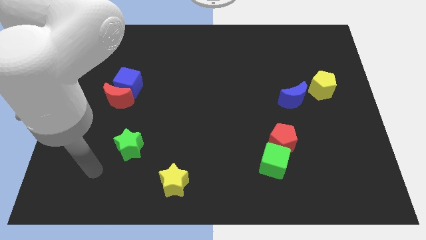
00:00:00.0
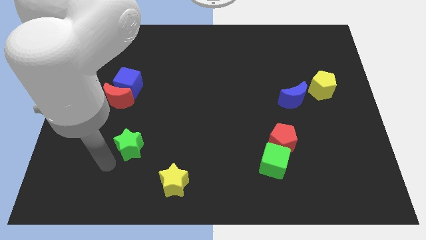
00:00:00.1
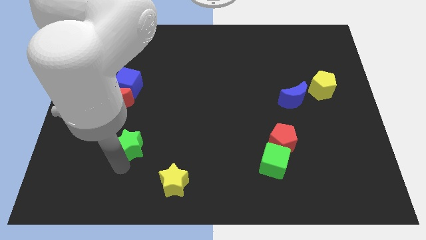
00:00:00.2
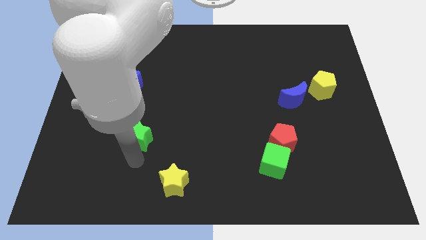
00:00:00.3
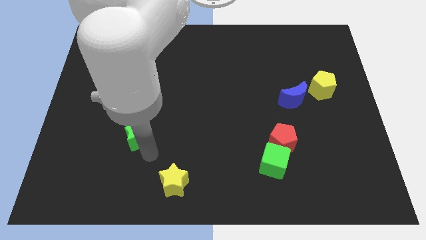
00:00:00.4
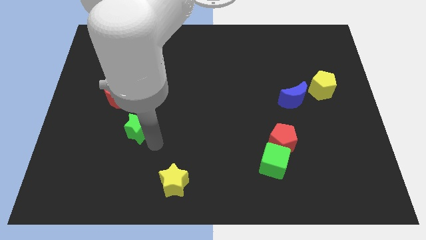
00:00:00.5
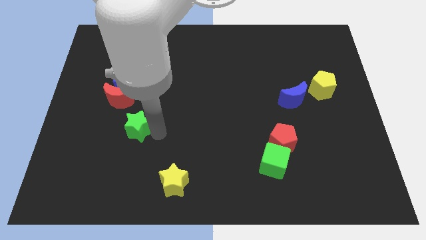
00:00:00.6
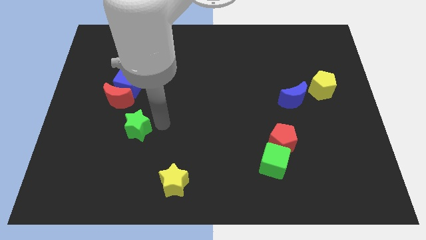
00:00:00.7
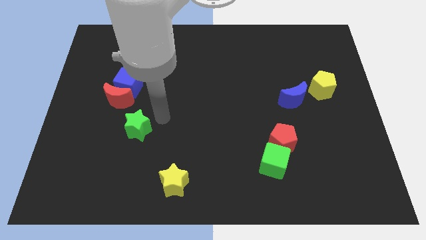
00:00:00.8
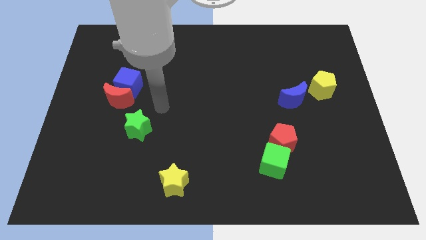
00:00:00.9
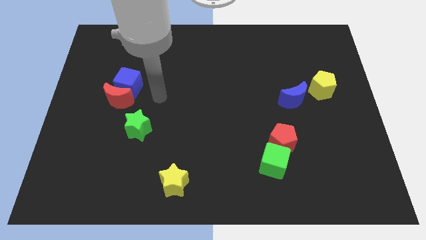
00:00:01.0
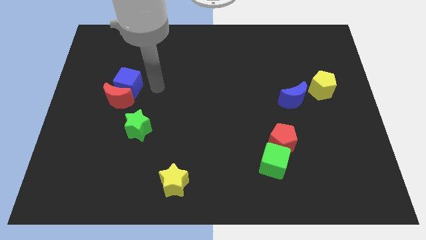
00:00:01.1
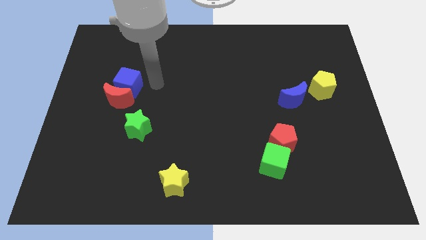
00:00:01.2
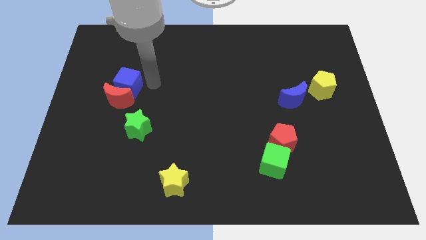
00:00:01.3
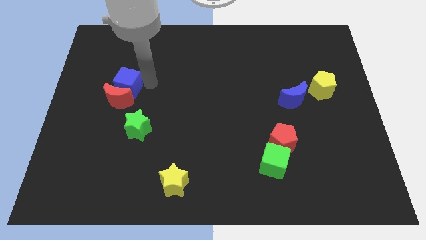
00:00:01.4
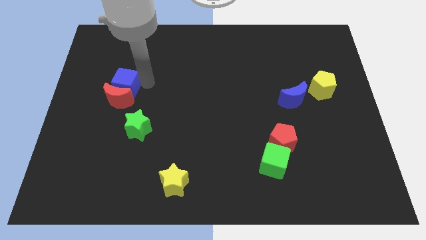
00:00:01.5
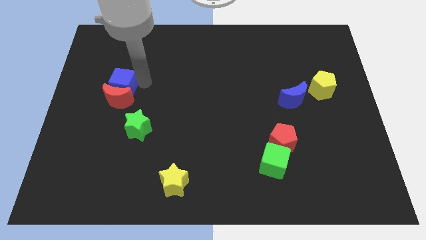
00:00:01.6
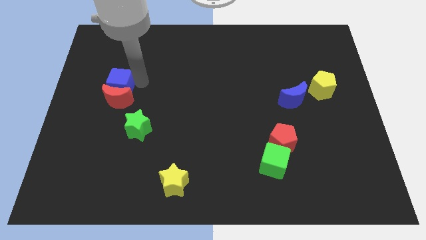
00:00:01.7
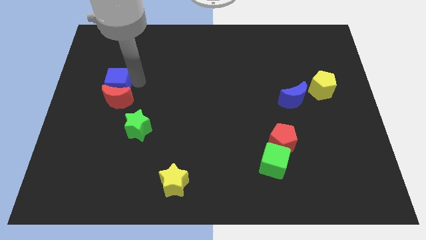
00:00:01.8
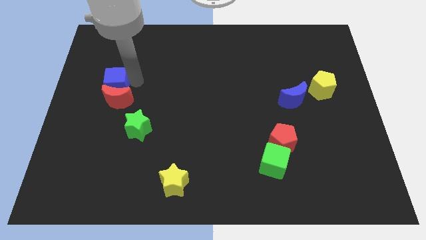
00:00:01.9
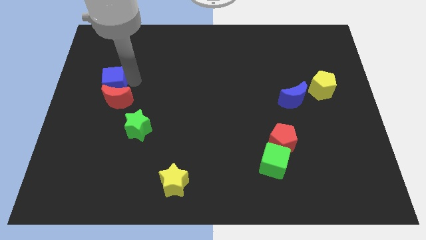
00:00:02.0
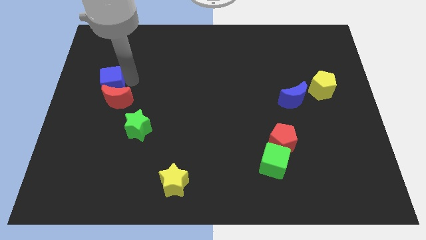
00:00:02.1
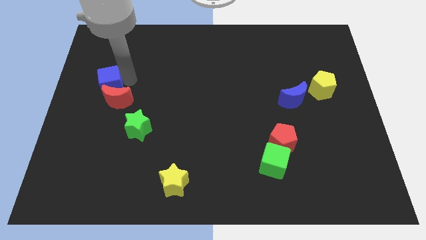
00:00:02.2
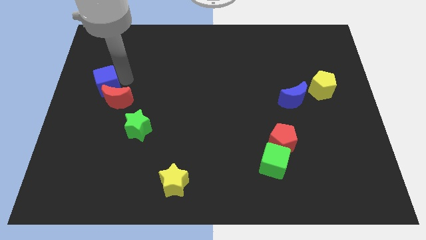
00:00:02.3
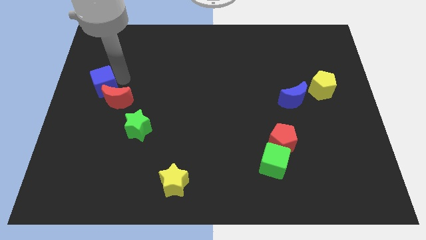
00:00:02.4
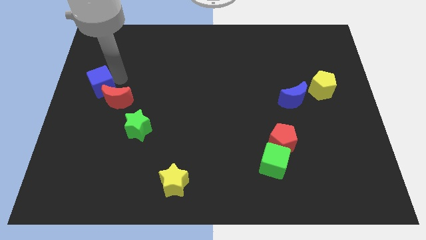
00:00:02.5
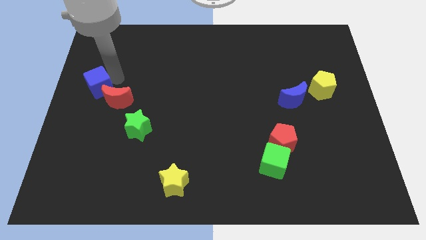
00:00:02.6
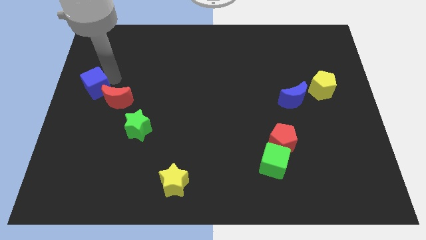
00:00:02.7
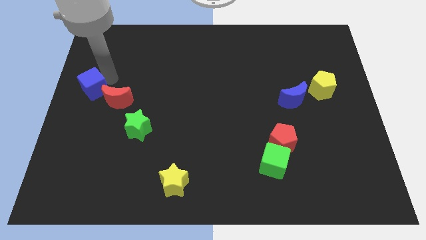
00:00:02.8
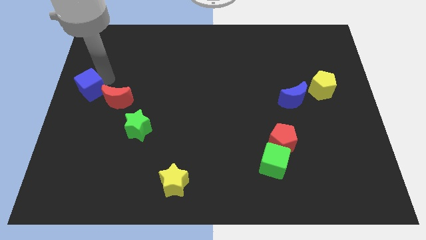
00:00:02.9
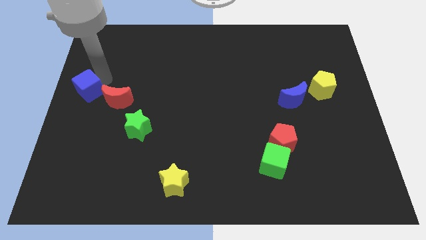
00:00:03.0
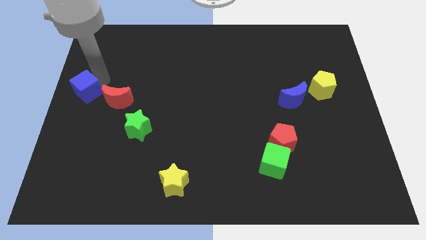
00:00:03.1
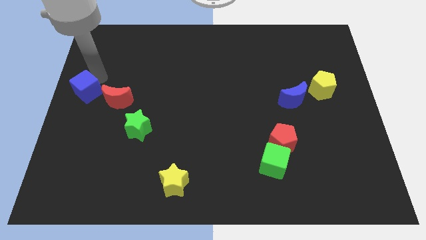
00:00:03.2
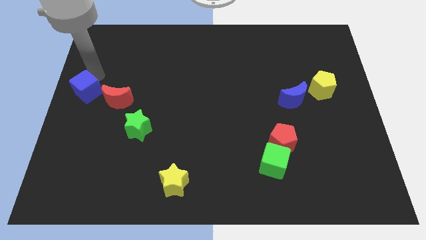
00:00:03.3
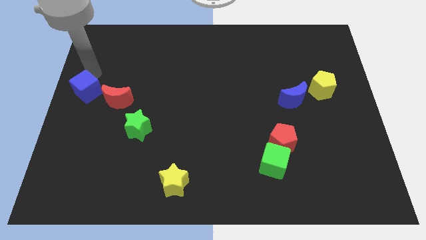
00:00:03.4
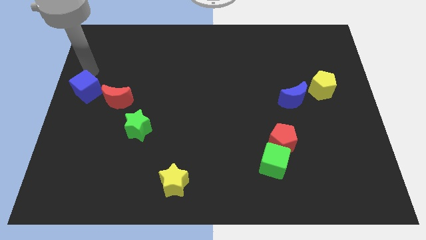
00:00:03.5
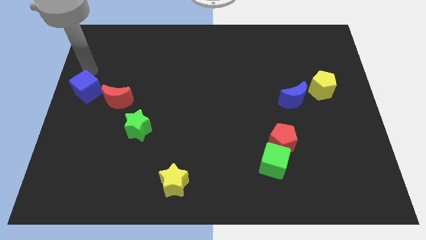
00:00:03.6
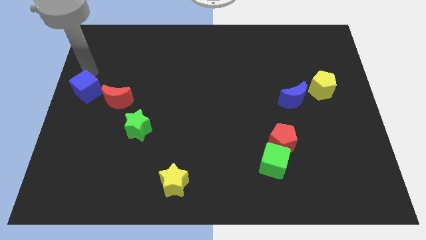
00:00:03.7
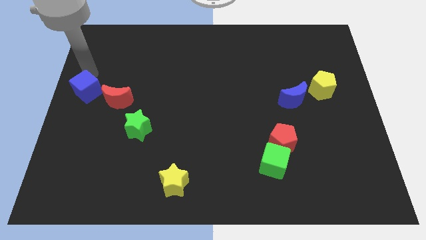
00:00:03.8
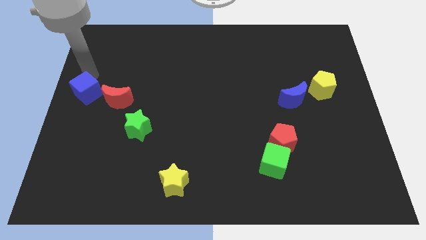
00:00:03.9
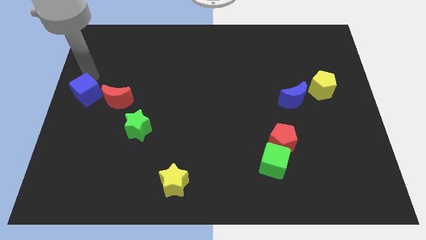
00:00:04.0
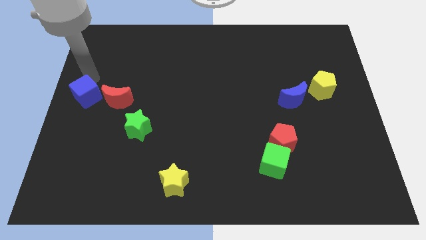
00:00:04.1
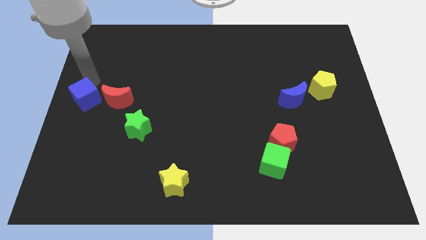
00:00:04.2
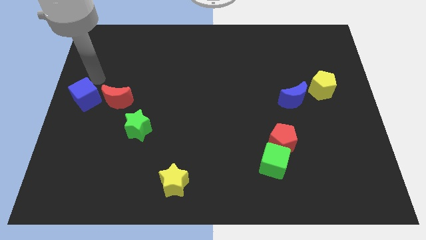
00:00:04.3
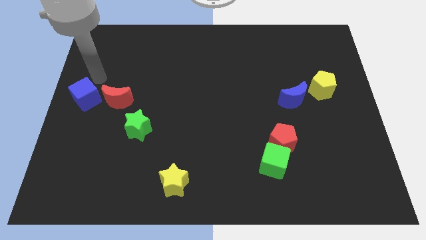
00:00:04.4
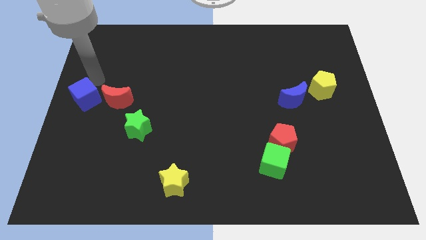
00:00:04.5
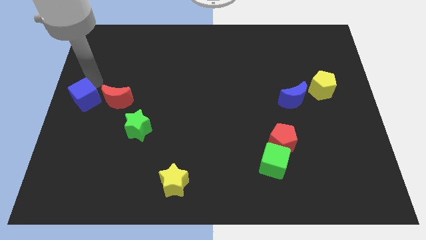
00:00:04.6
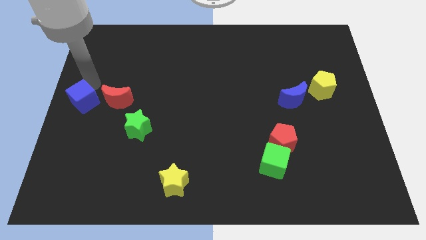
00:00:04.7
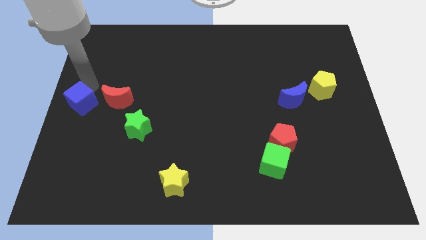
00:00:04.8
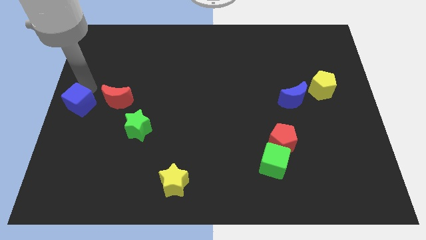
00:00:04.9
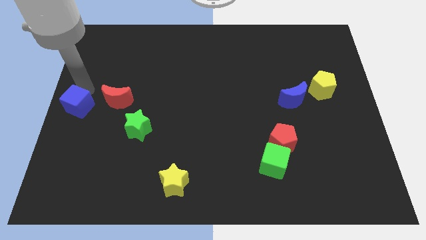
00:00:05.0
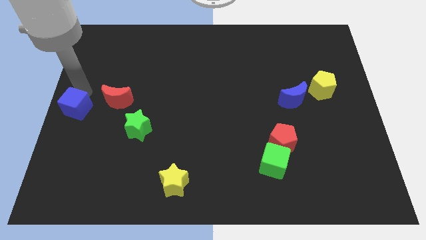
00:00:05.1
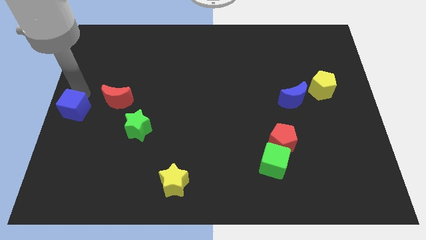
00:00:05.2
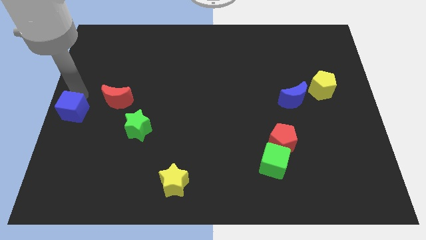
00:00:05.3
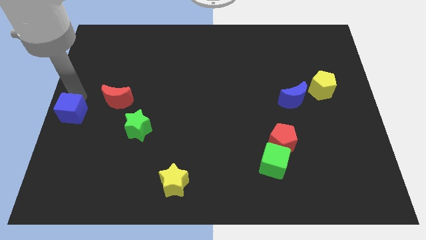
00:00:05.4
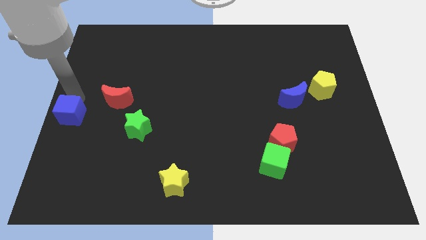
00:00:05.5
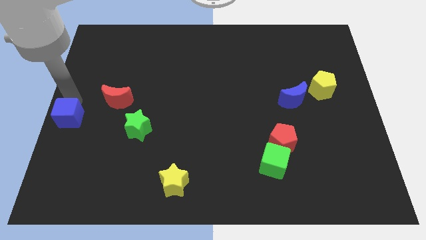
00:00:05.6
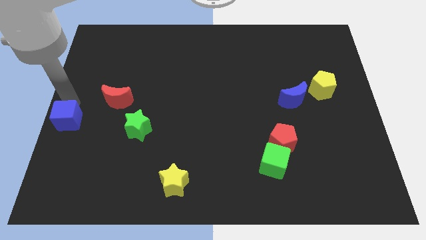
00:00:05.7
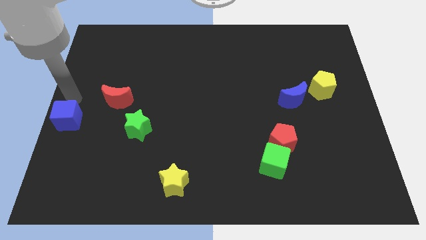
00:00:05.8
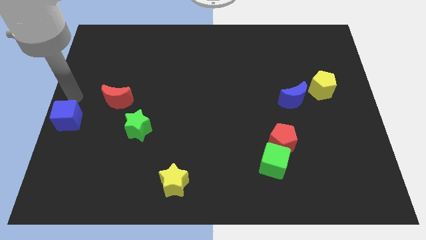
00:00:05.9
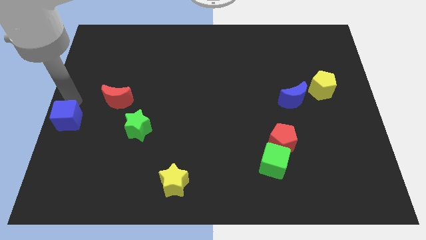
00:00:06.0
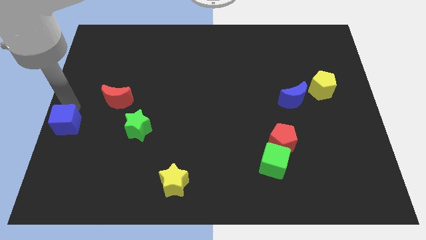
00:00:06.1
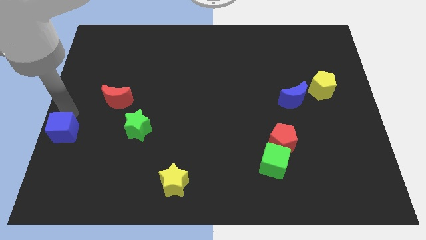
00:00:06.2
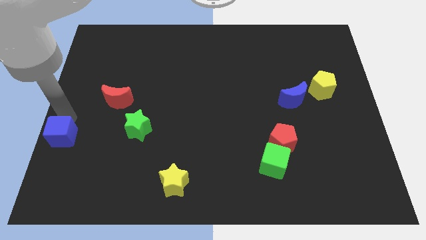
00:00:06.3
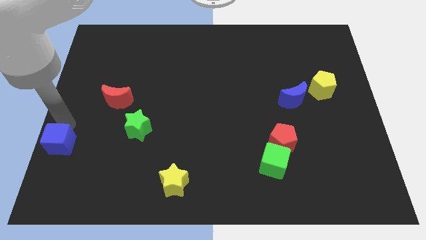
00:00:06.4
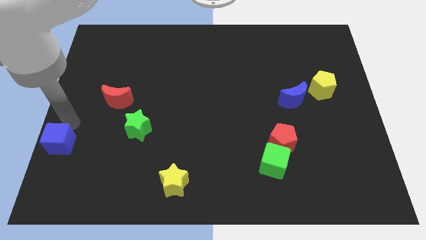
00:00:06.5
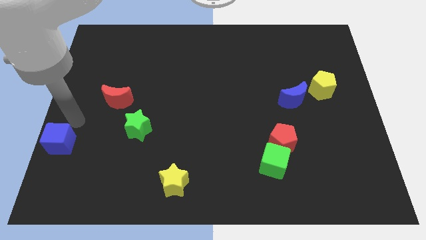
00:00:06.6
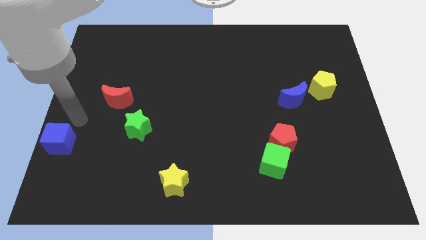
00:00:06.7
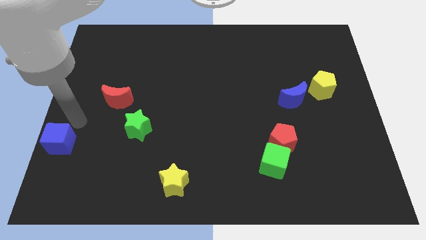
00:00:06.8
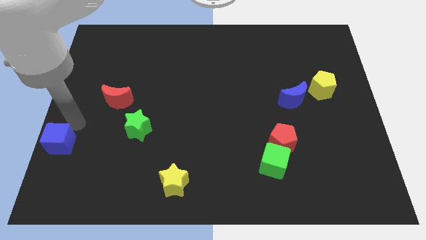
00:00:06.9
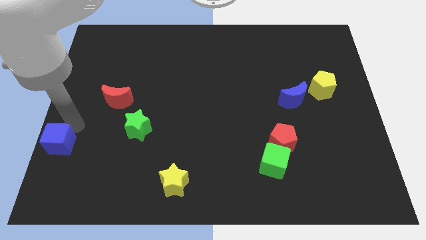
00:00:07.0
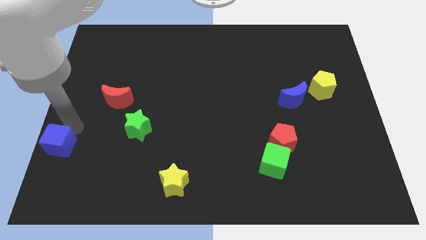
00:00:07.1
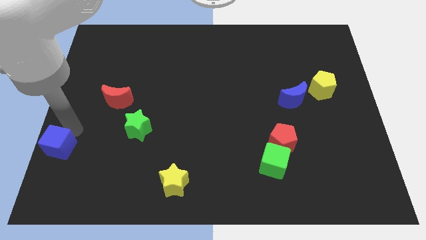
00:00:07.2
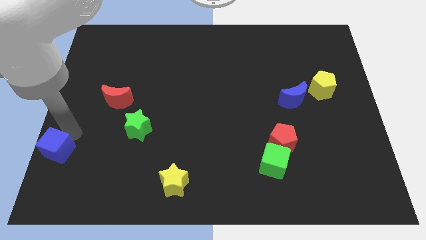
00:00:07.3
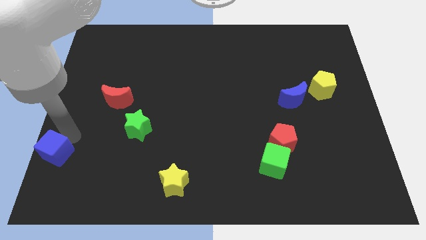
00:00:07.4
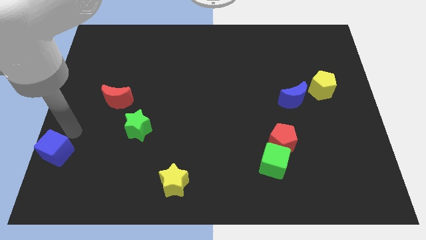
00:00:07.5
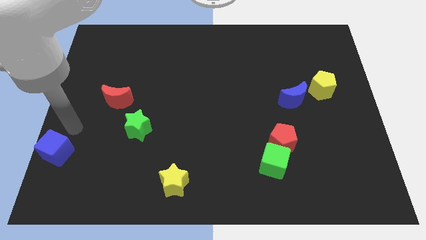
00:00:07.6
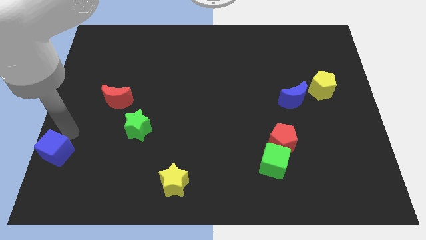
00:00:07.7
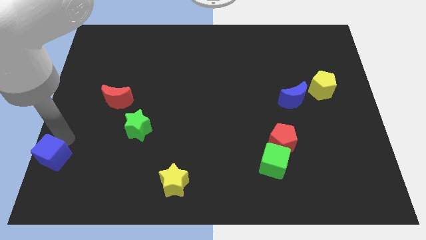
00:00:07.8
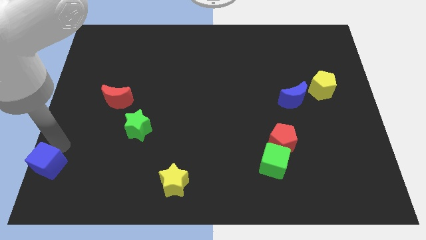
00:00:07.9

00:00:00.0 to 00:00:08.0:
move the blue cube to the bottom left of the board
